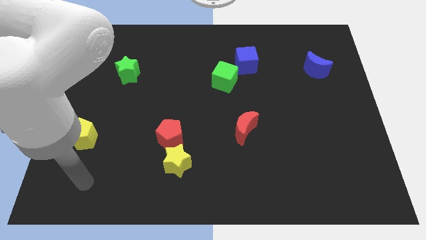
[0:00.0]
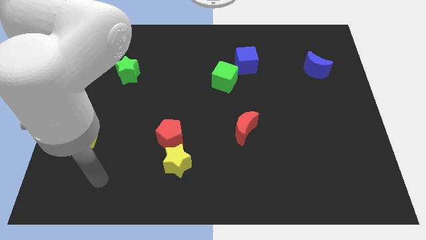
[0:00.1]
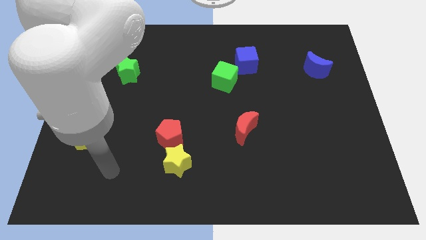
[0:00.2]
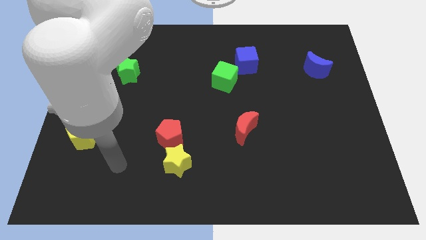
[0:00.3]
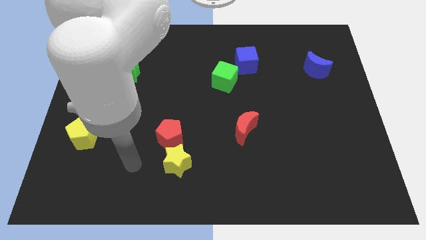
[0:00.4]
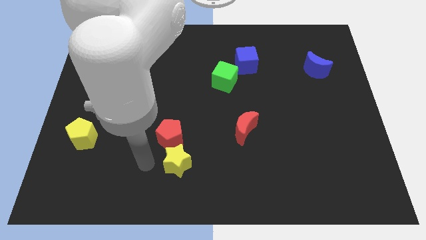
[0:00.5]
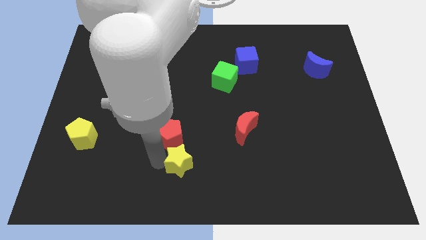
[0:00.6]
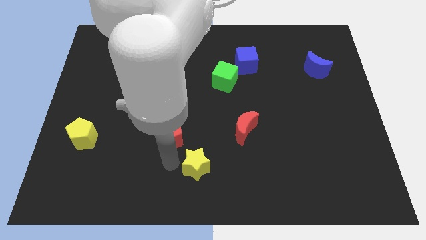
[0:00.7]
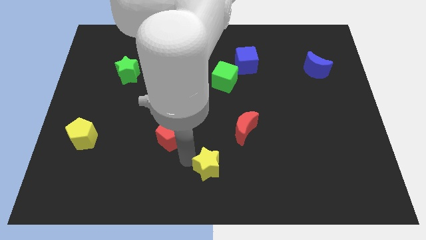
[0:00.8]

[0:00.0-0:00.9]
separate the red pentagon from the yellow star

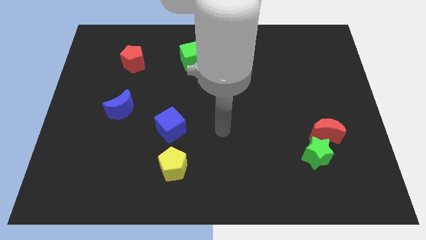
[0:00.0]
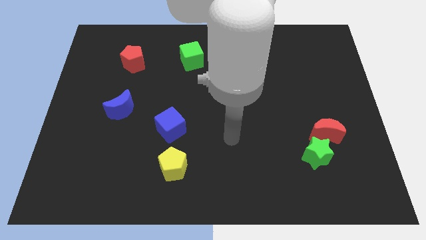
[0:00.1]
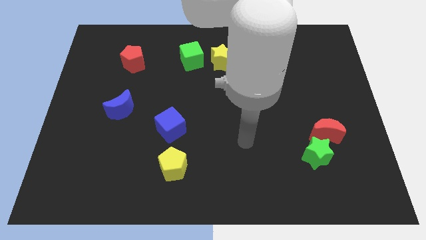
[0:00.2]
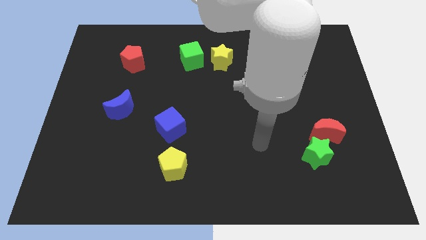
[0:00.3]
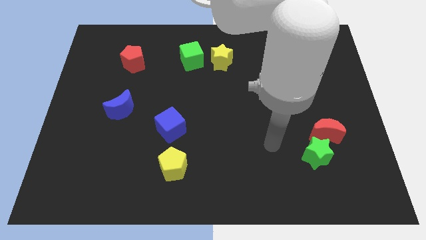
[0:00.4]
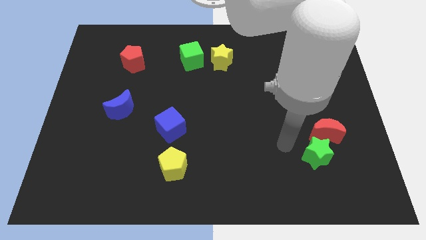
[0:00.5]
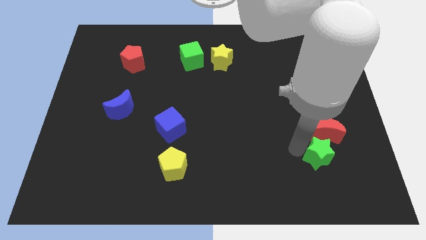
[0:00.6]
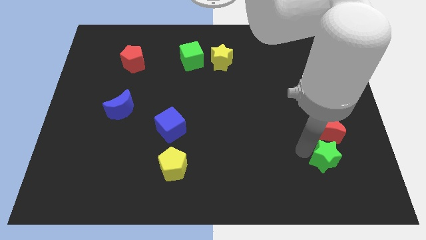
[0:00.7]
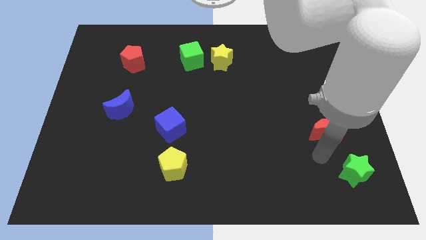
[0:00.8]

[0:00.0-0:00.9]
separate the red moon from the green star

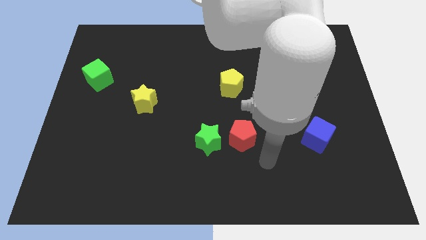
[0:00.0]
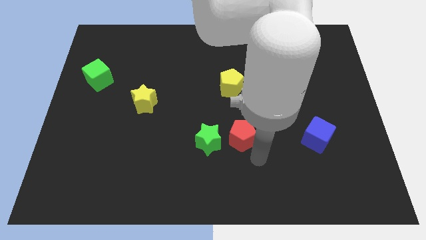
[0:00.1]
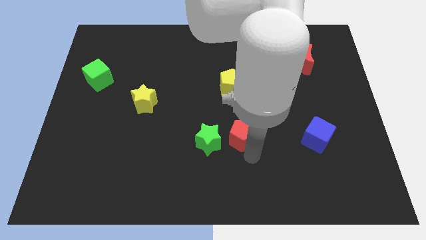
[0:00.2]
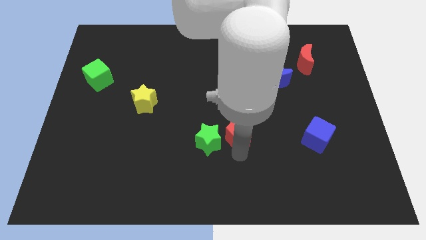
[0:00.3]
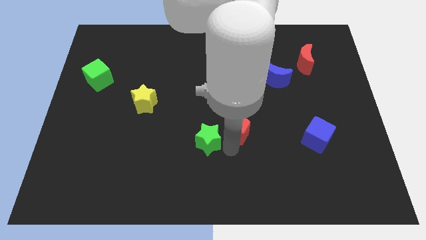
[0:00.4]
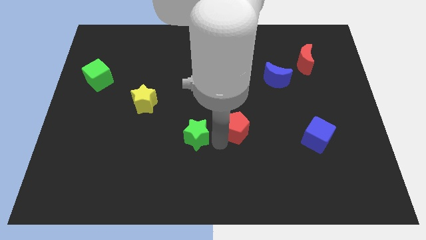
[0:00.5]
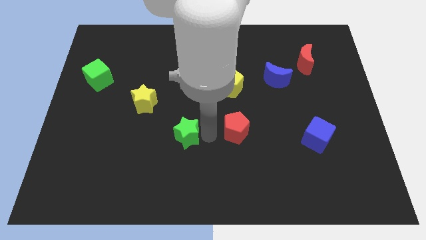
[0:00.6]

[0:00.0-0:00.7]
move the red pentagon away from the green star

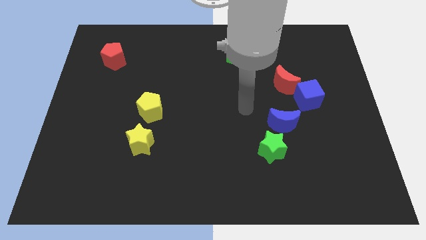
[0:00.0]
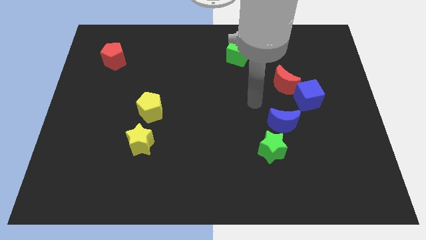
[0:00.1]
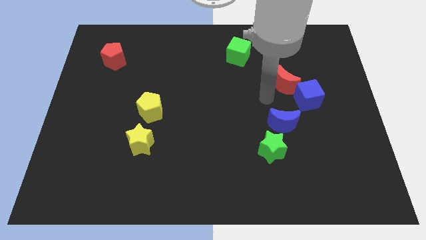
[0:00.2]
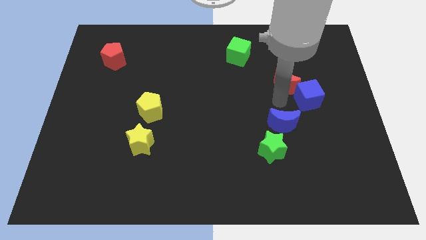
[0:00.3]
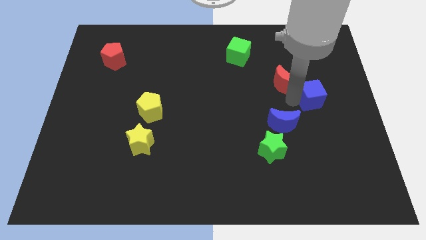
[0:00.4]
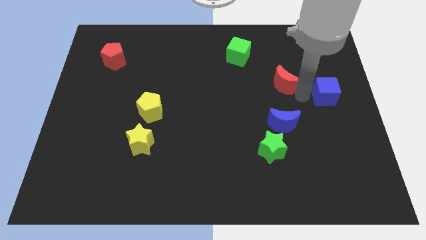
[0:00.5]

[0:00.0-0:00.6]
separate the red moon from the blue cube

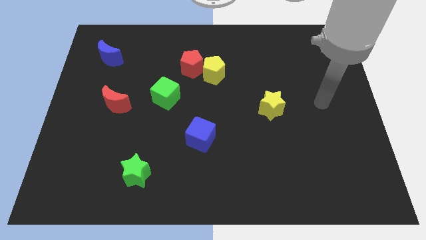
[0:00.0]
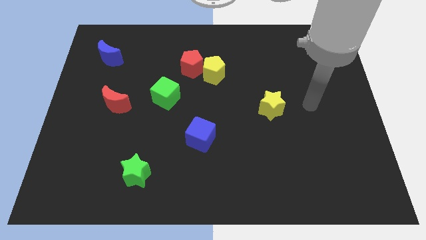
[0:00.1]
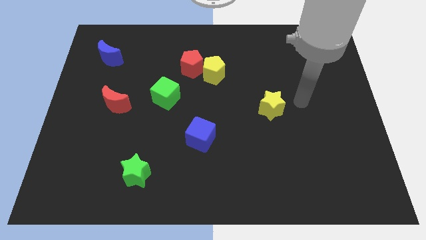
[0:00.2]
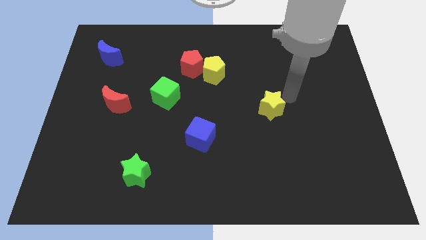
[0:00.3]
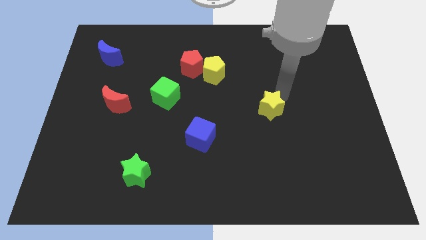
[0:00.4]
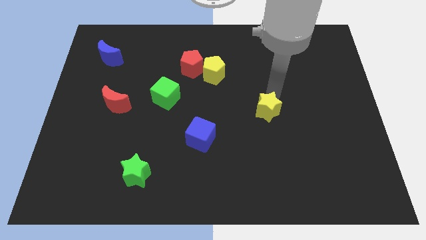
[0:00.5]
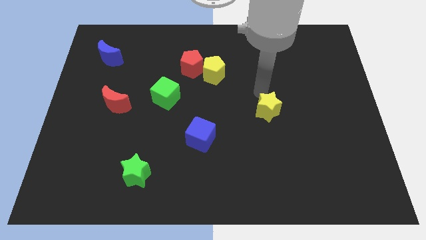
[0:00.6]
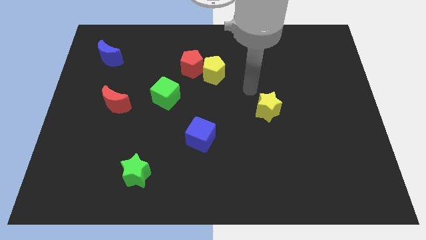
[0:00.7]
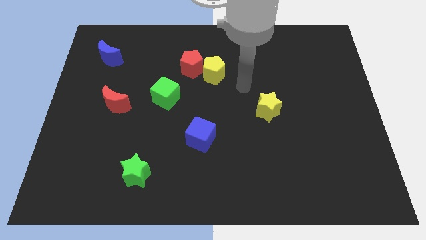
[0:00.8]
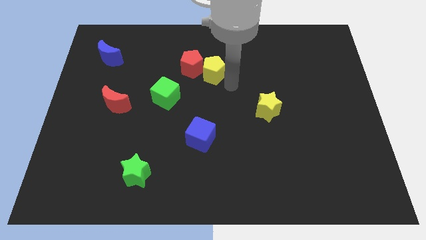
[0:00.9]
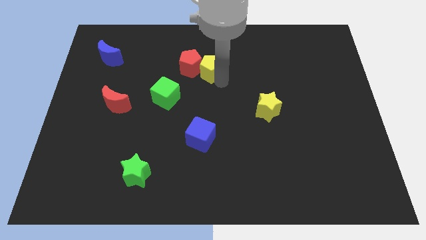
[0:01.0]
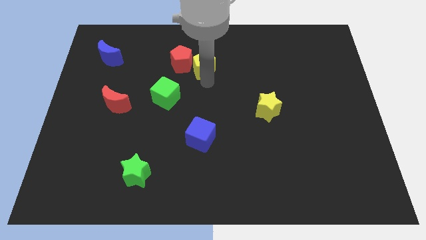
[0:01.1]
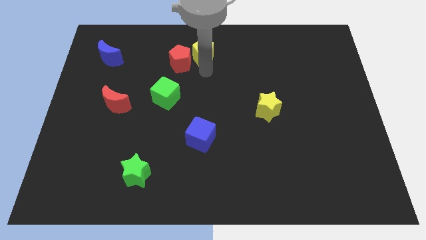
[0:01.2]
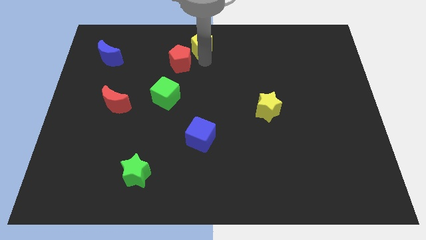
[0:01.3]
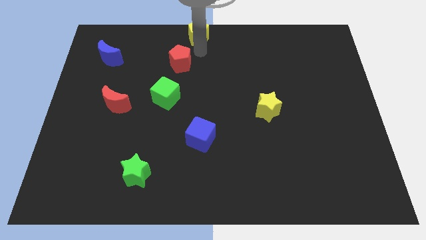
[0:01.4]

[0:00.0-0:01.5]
separate the red pentagon from the yellow pentagon

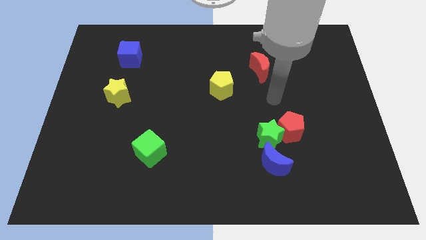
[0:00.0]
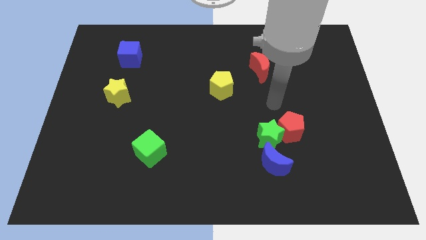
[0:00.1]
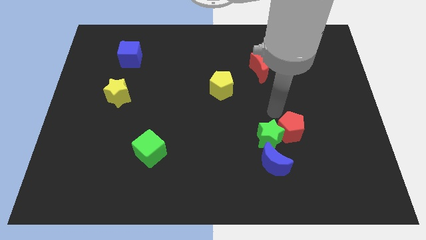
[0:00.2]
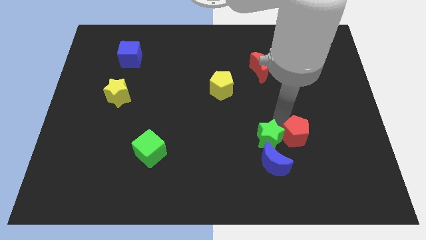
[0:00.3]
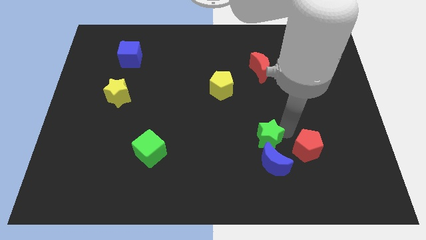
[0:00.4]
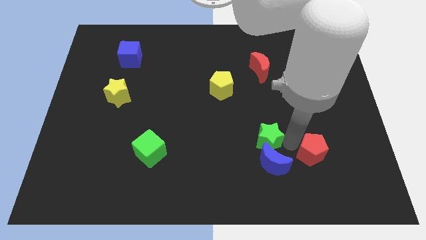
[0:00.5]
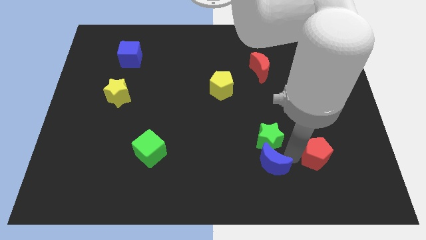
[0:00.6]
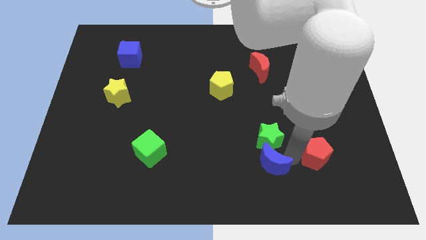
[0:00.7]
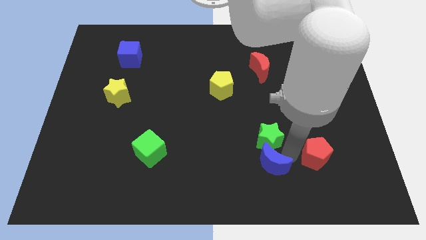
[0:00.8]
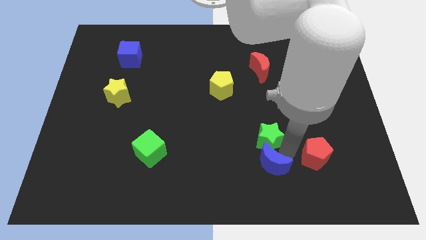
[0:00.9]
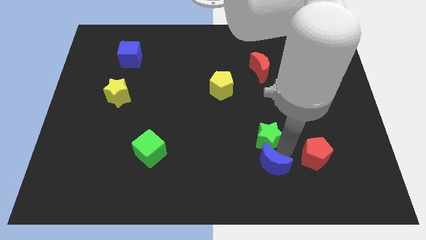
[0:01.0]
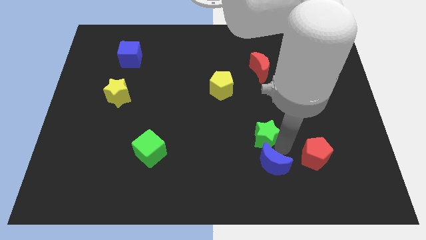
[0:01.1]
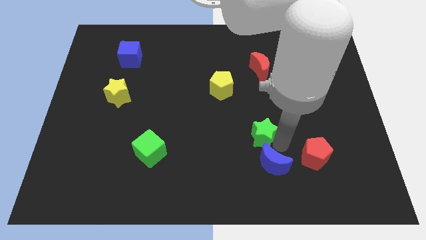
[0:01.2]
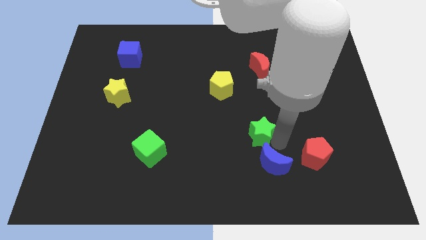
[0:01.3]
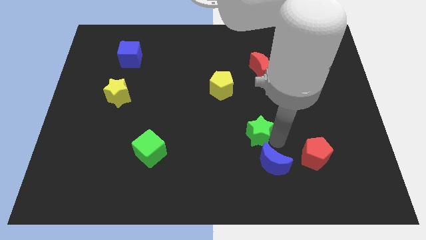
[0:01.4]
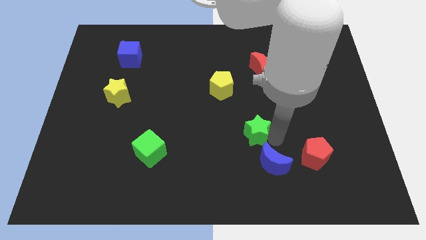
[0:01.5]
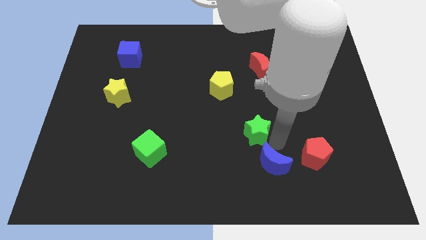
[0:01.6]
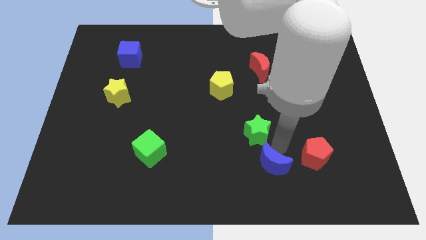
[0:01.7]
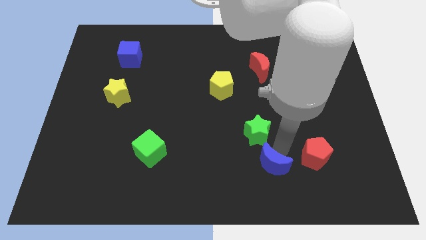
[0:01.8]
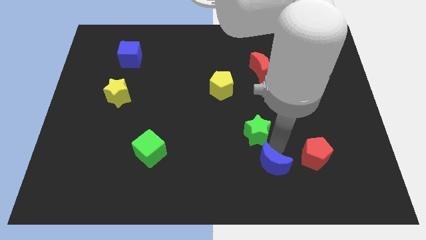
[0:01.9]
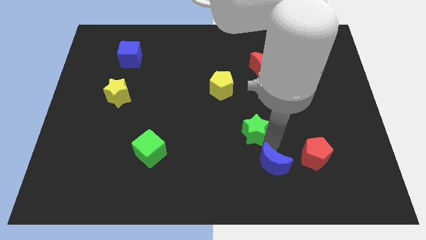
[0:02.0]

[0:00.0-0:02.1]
pull the green star apart from the red pentagon and blue moon

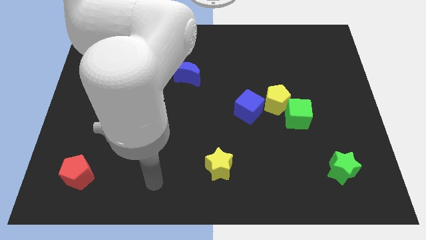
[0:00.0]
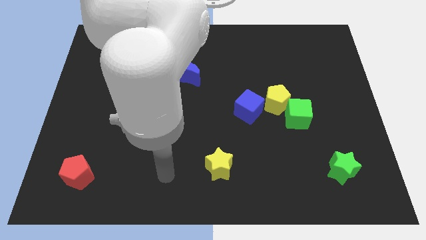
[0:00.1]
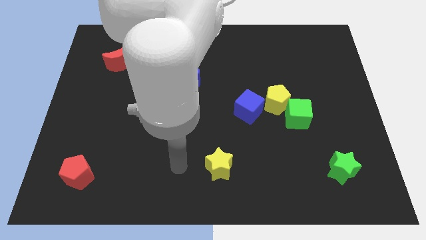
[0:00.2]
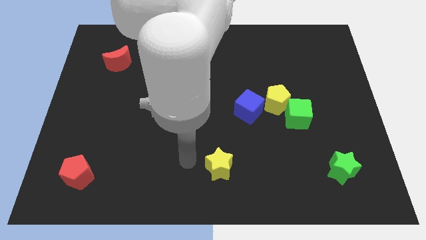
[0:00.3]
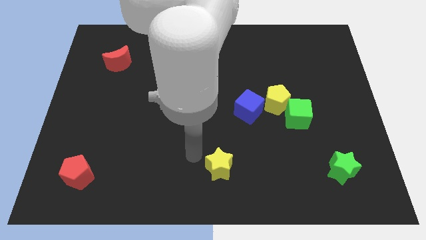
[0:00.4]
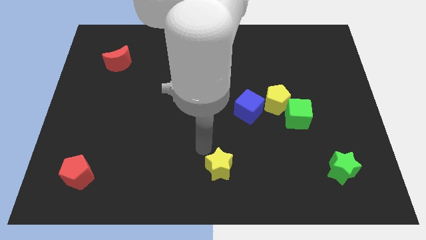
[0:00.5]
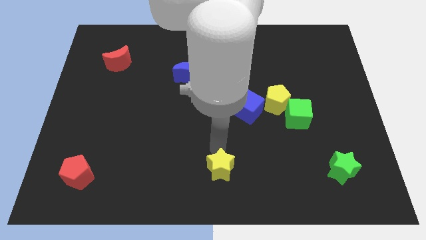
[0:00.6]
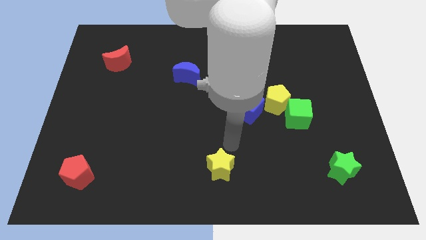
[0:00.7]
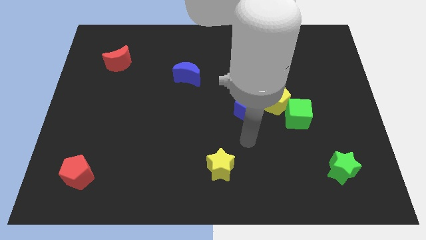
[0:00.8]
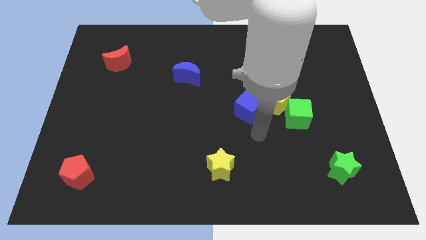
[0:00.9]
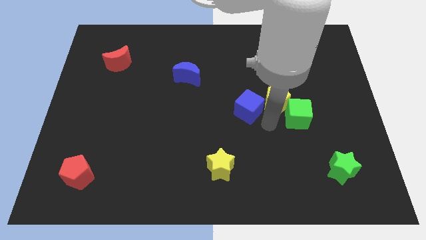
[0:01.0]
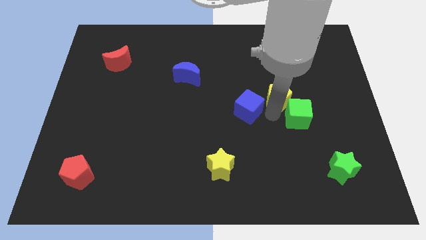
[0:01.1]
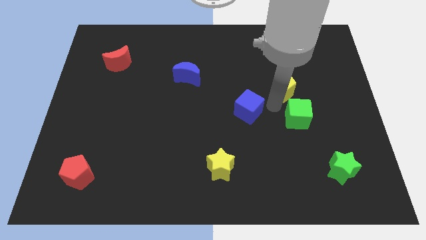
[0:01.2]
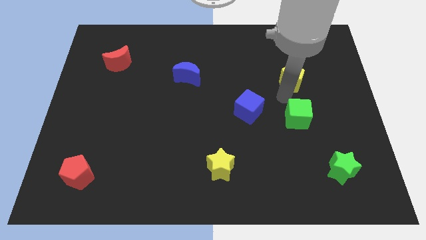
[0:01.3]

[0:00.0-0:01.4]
move the green cube away from the yellow pentagon

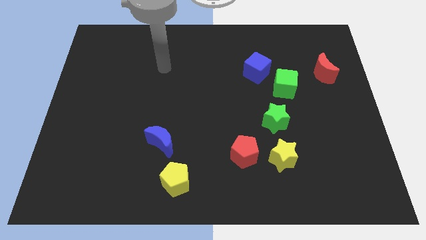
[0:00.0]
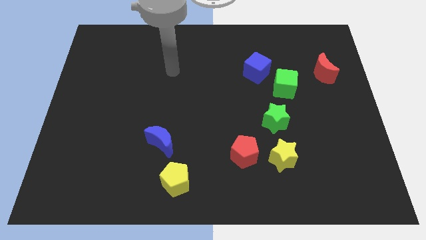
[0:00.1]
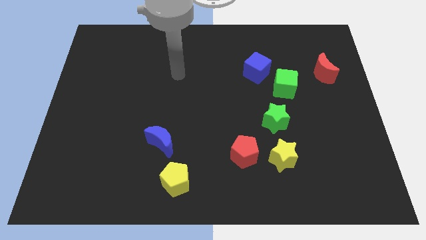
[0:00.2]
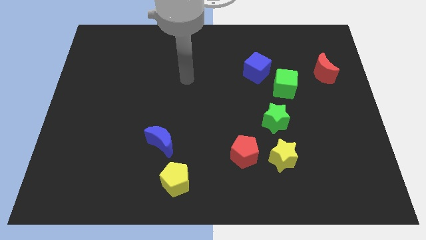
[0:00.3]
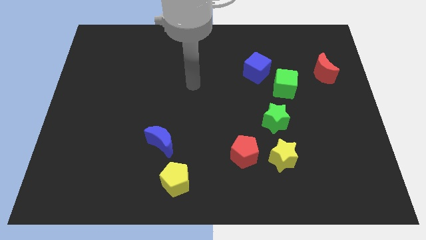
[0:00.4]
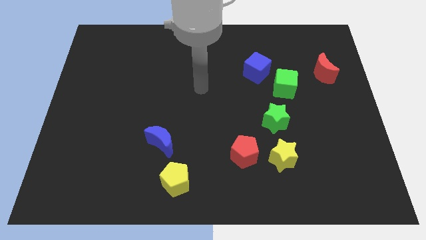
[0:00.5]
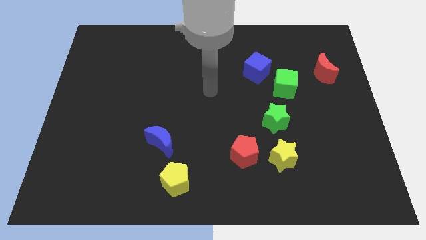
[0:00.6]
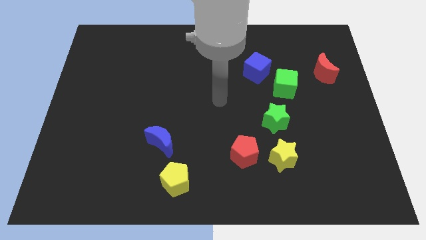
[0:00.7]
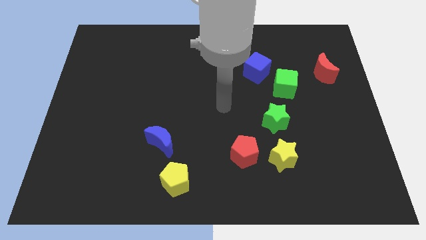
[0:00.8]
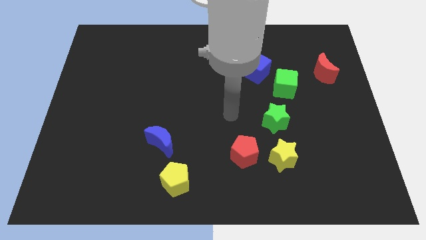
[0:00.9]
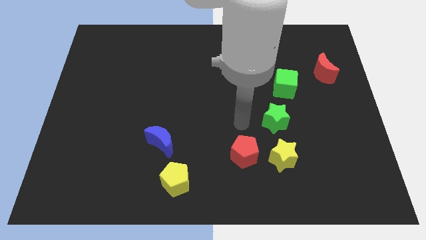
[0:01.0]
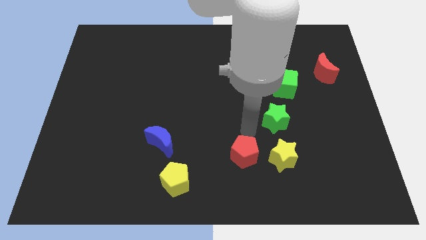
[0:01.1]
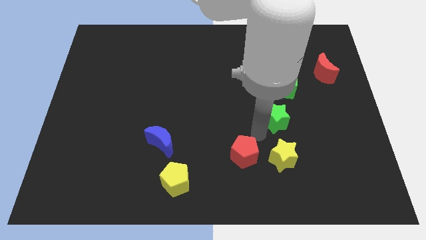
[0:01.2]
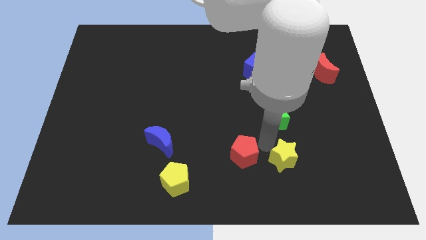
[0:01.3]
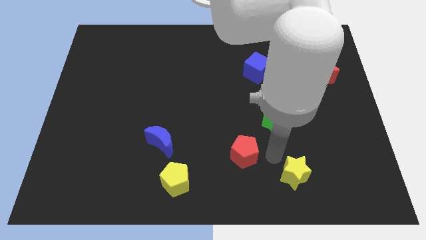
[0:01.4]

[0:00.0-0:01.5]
move the red pentagon away from the yellow star
